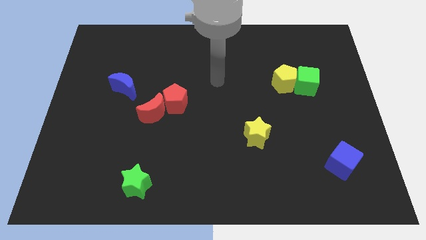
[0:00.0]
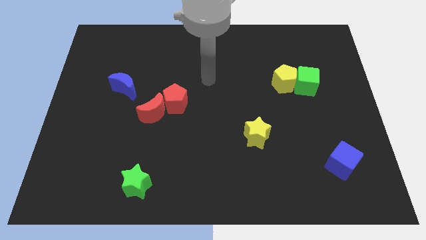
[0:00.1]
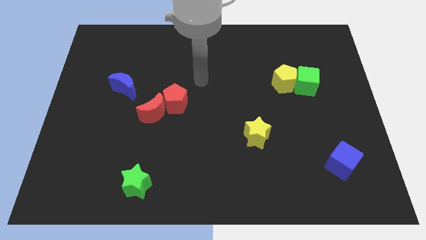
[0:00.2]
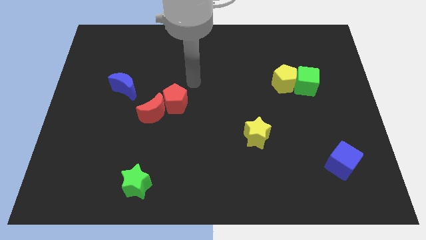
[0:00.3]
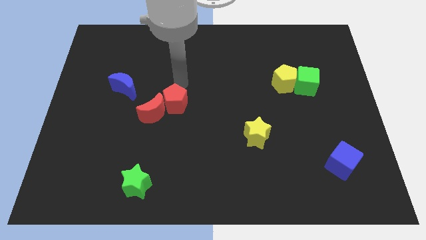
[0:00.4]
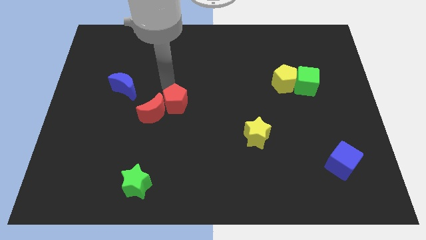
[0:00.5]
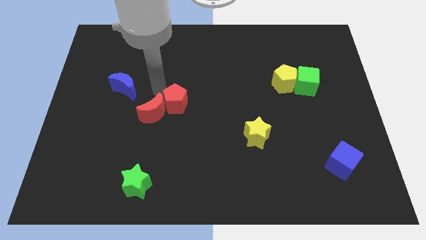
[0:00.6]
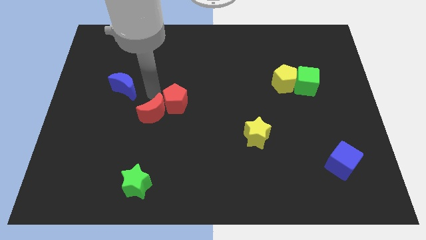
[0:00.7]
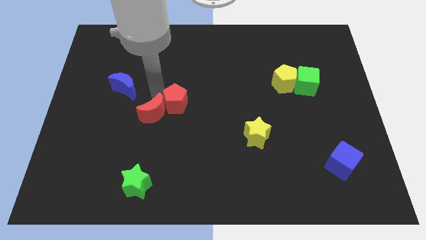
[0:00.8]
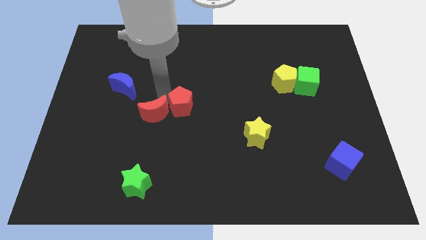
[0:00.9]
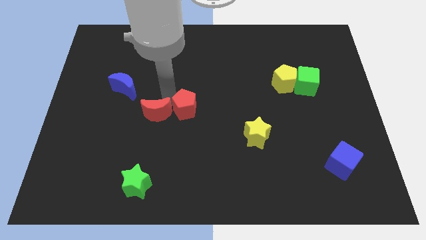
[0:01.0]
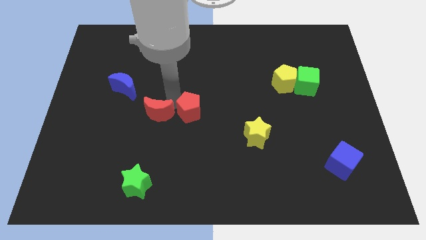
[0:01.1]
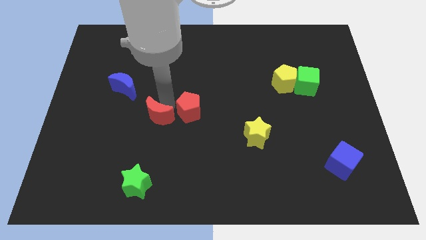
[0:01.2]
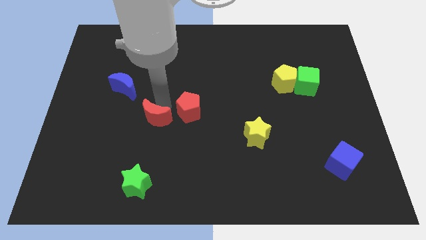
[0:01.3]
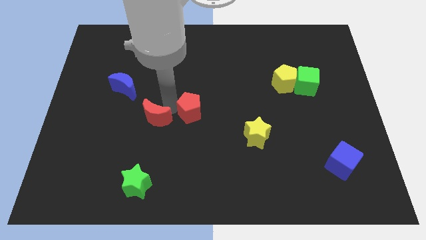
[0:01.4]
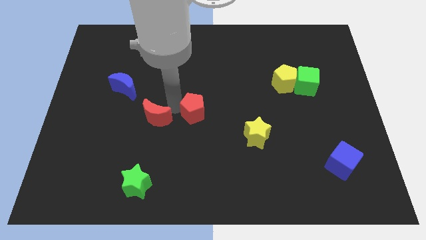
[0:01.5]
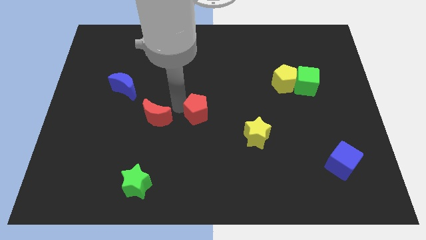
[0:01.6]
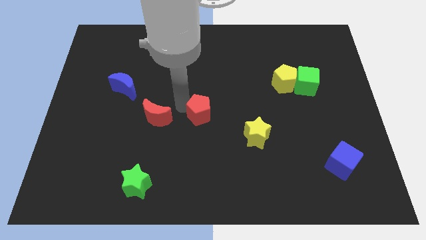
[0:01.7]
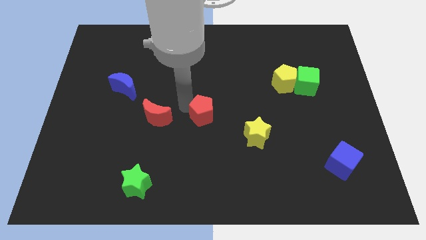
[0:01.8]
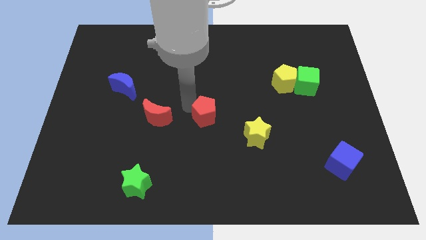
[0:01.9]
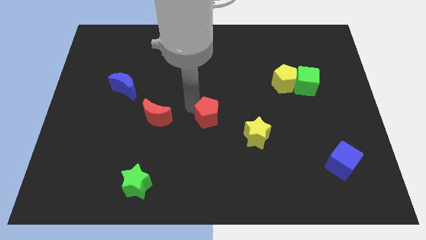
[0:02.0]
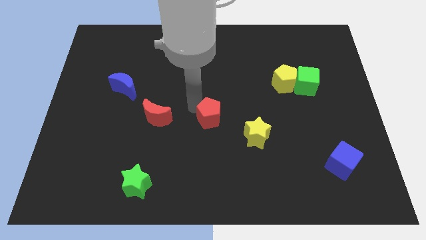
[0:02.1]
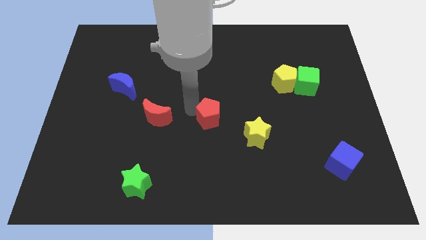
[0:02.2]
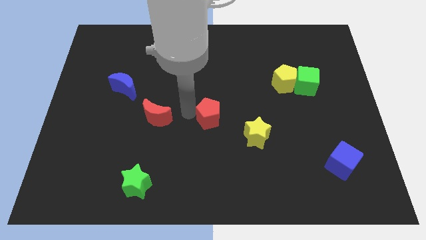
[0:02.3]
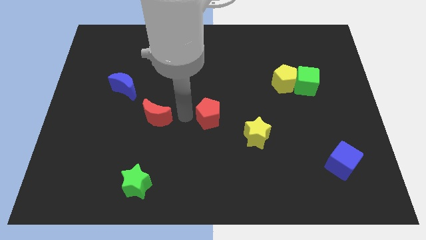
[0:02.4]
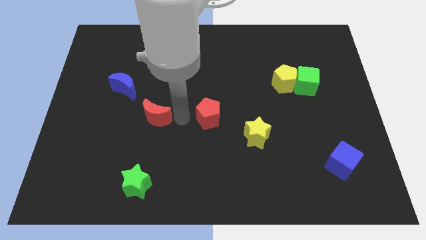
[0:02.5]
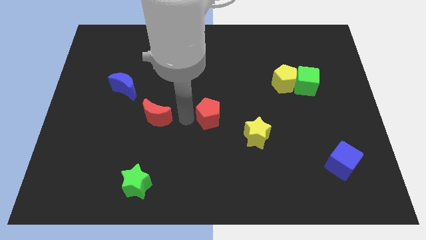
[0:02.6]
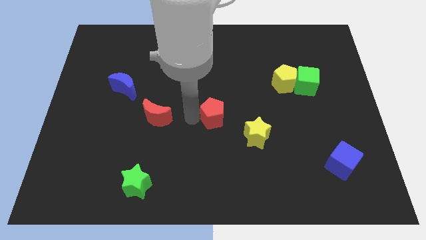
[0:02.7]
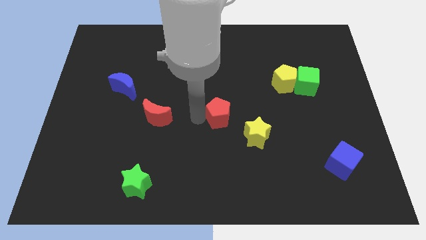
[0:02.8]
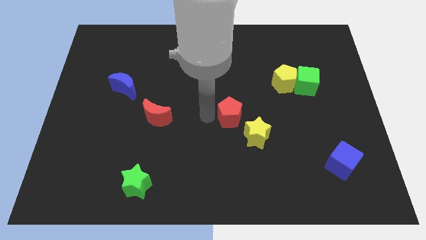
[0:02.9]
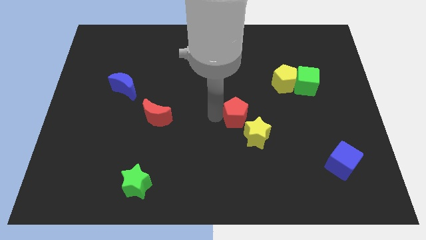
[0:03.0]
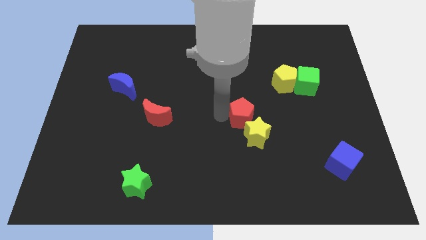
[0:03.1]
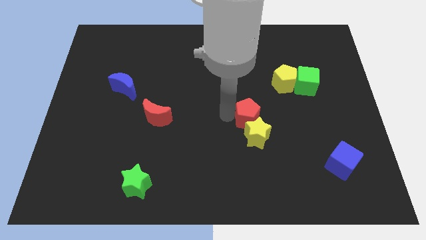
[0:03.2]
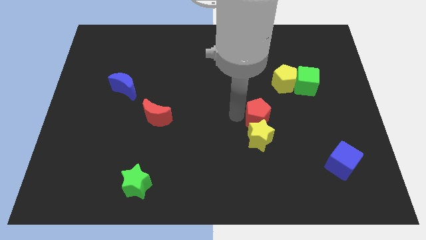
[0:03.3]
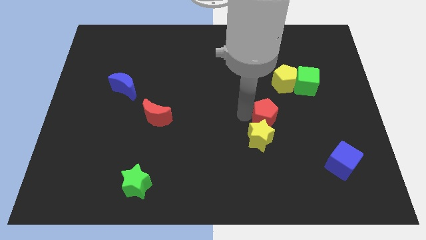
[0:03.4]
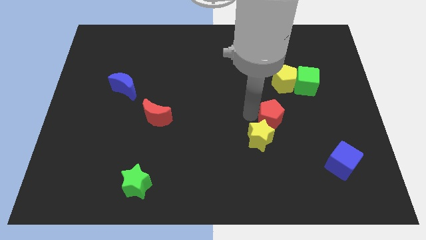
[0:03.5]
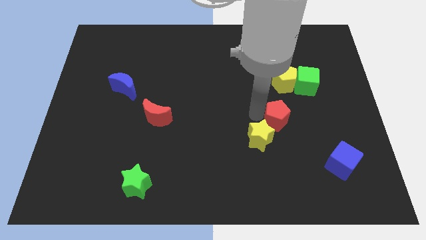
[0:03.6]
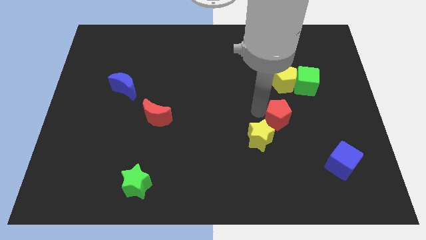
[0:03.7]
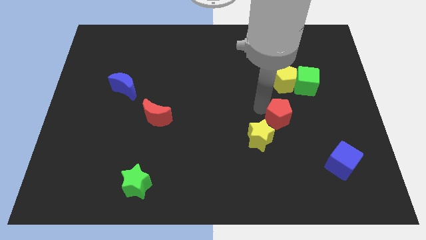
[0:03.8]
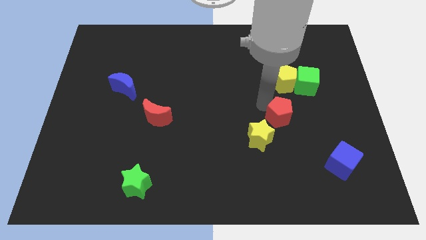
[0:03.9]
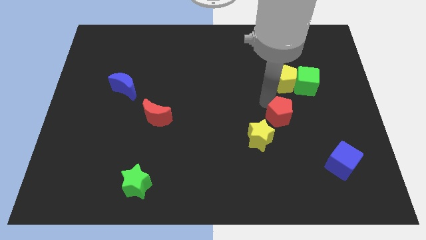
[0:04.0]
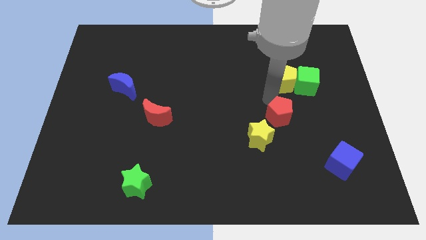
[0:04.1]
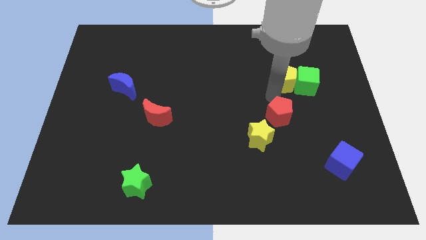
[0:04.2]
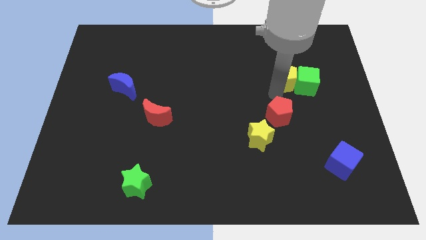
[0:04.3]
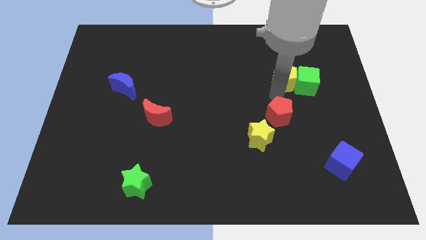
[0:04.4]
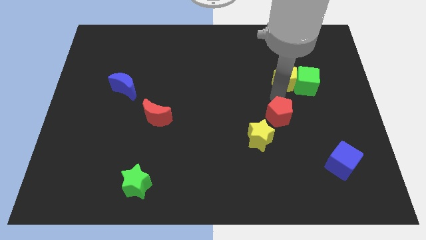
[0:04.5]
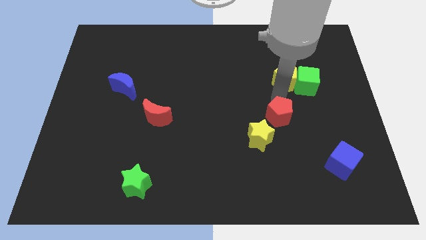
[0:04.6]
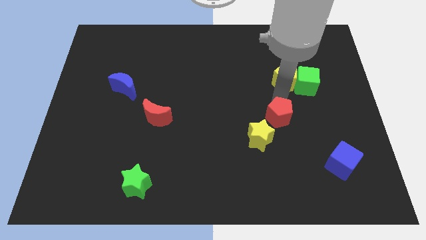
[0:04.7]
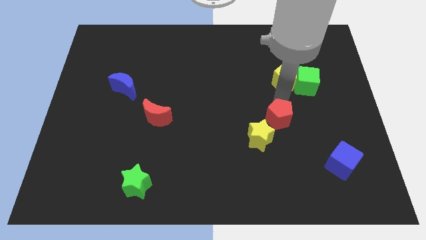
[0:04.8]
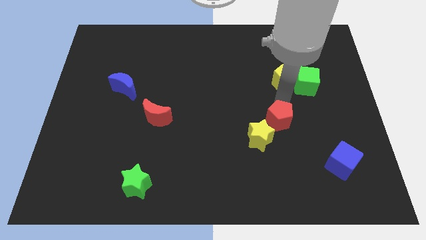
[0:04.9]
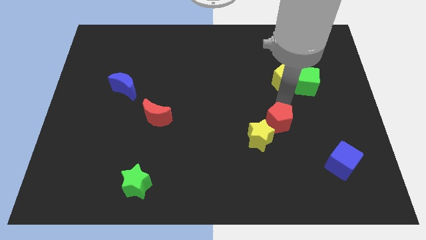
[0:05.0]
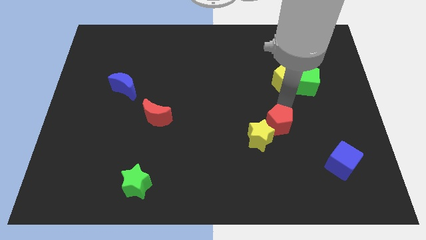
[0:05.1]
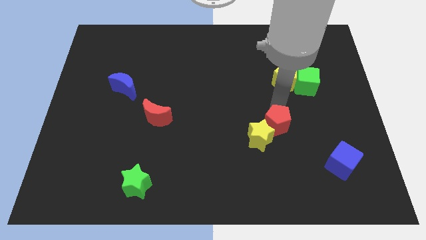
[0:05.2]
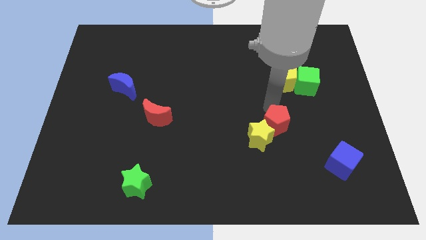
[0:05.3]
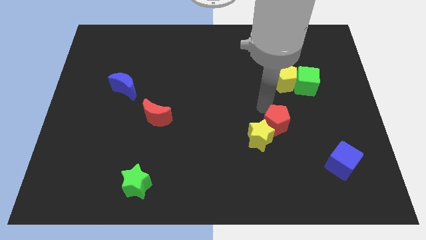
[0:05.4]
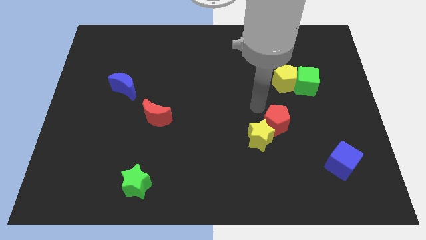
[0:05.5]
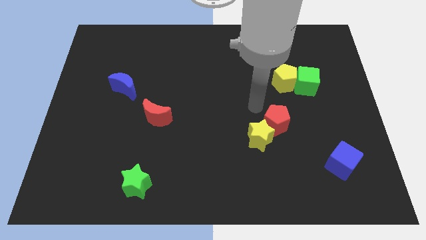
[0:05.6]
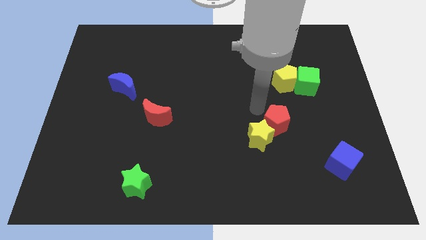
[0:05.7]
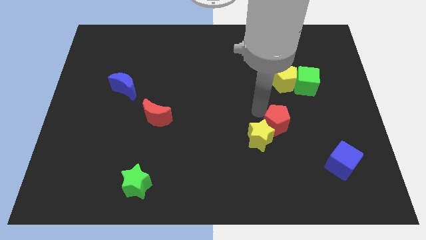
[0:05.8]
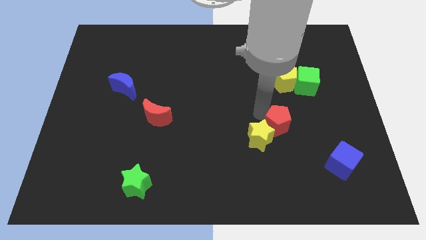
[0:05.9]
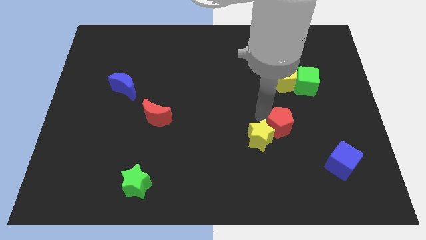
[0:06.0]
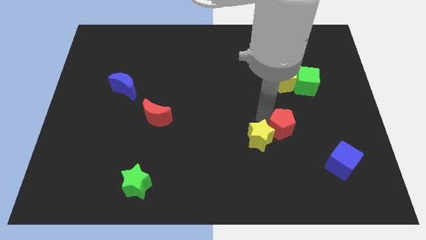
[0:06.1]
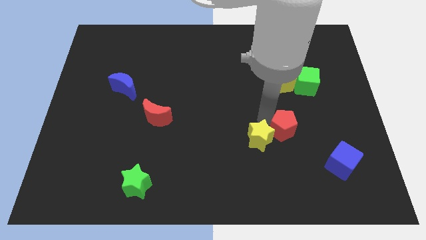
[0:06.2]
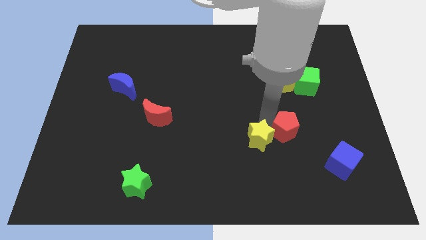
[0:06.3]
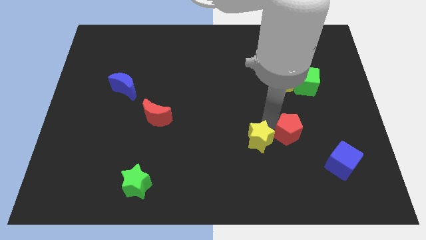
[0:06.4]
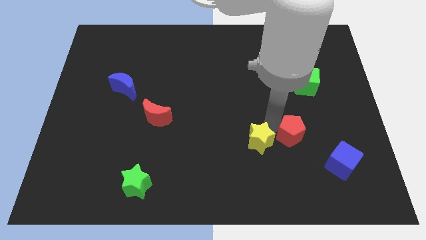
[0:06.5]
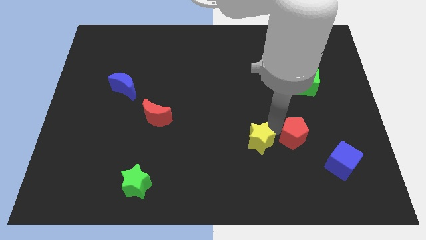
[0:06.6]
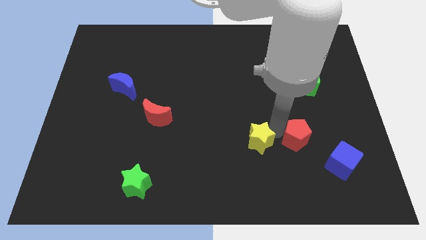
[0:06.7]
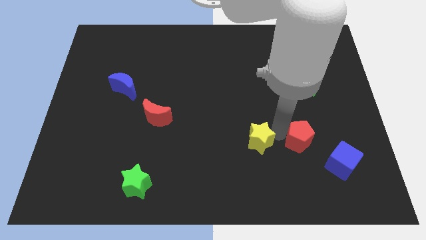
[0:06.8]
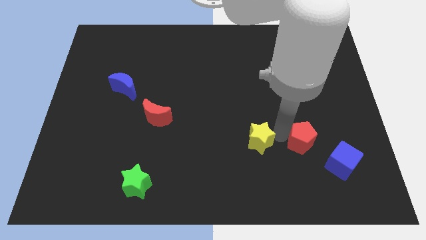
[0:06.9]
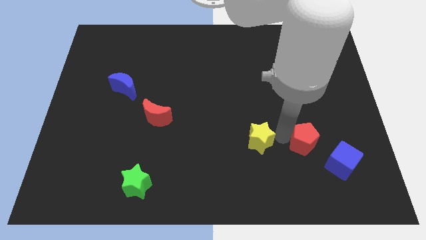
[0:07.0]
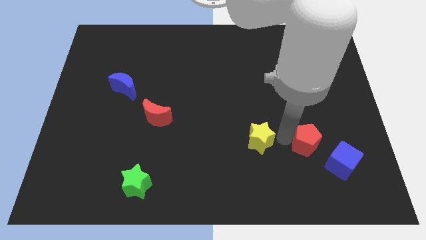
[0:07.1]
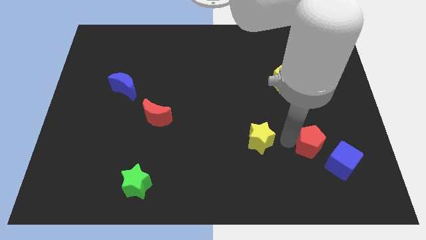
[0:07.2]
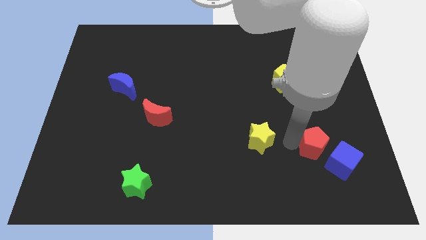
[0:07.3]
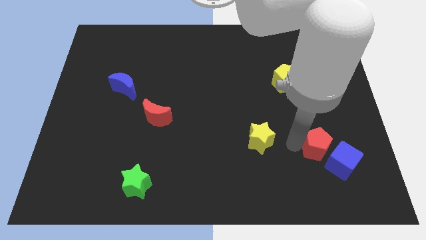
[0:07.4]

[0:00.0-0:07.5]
slide the red pentagon next to the blue cube
